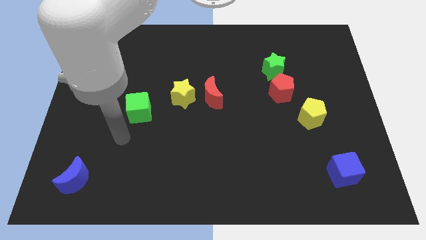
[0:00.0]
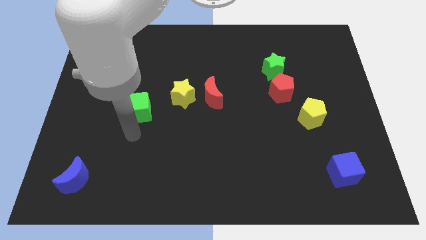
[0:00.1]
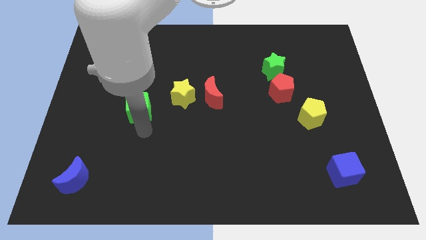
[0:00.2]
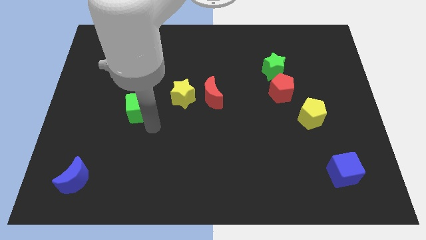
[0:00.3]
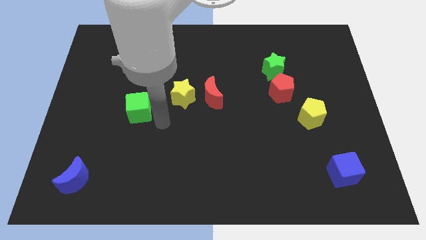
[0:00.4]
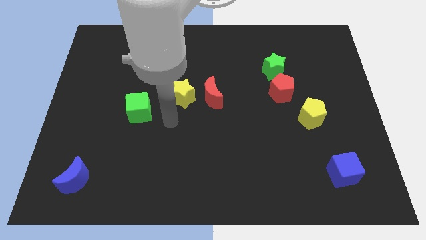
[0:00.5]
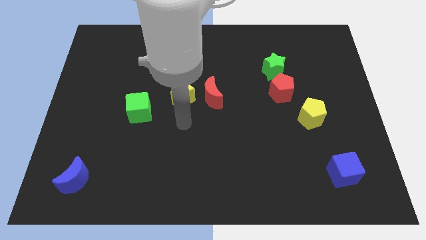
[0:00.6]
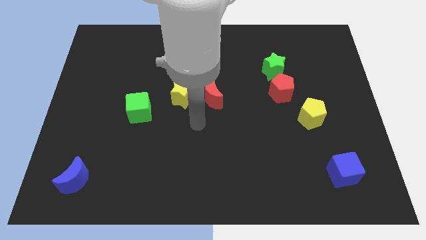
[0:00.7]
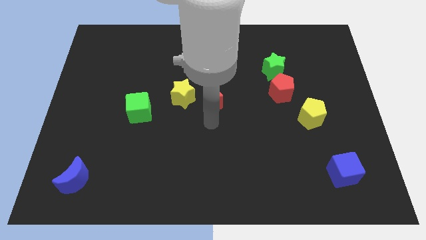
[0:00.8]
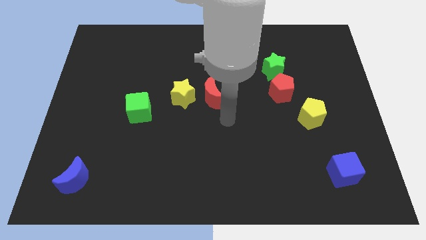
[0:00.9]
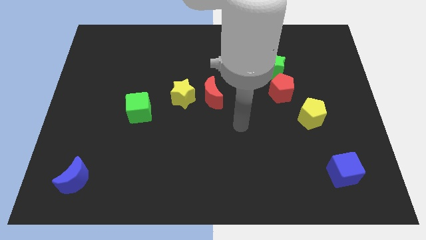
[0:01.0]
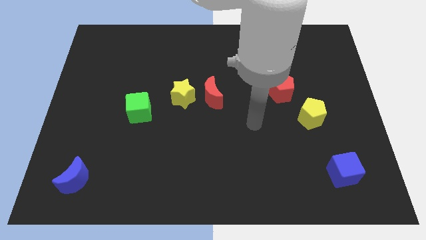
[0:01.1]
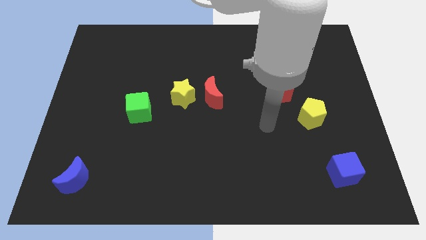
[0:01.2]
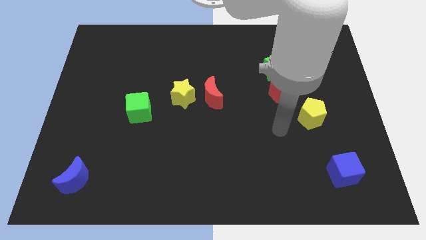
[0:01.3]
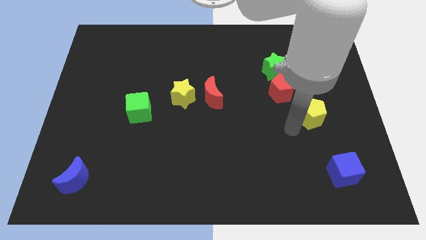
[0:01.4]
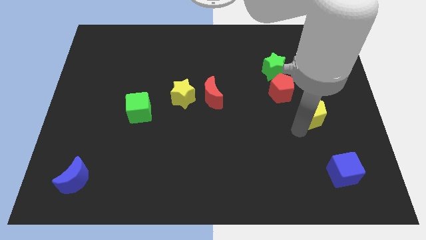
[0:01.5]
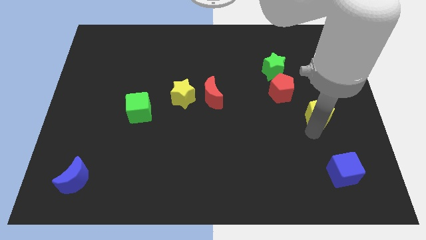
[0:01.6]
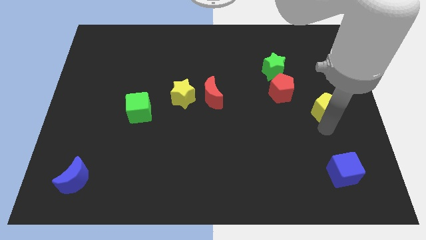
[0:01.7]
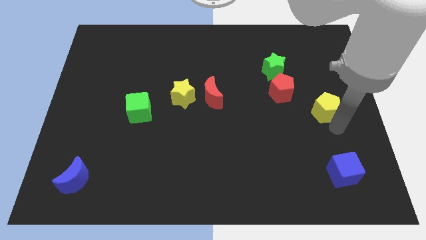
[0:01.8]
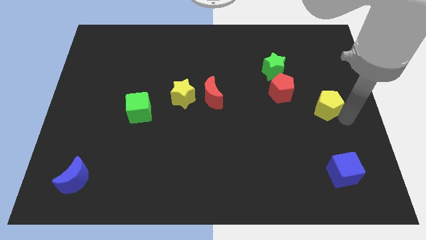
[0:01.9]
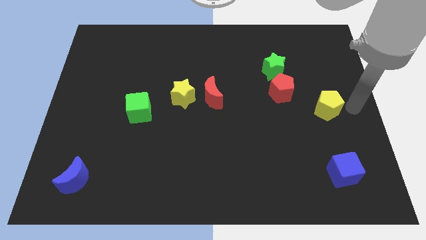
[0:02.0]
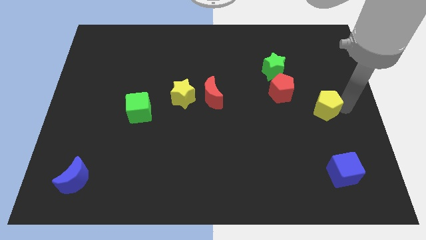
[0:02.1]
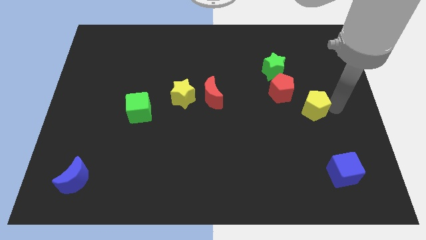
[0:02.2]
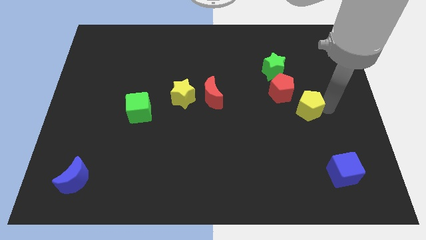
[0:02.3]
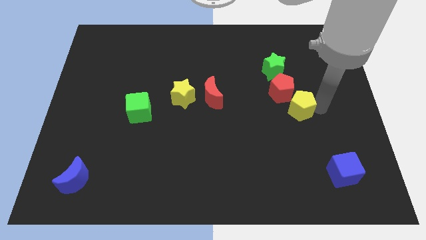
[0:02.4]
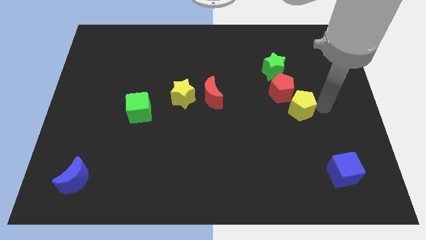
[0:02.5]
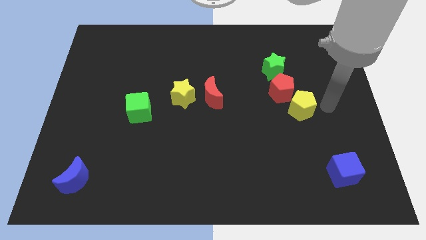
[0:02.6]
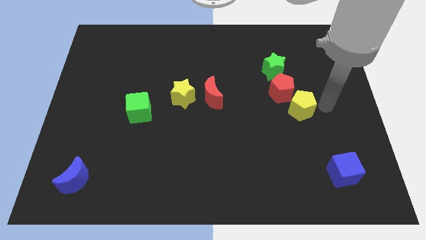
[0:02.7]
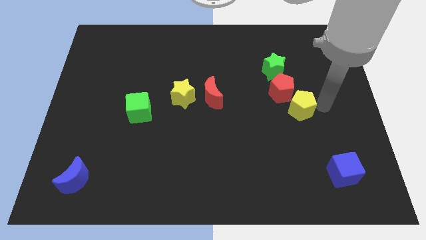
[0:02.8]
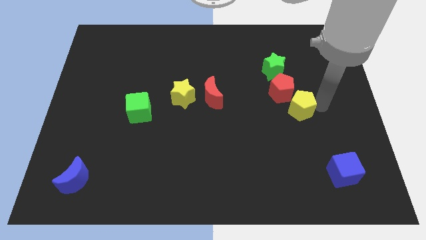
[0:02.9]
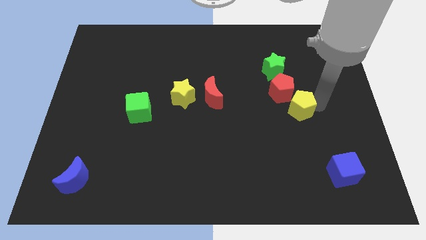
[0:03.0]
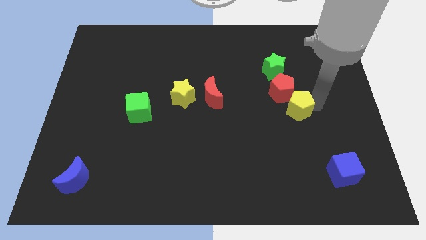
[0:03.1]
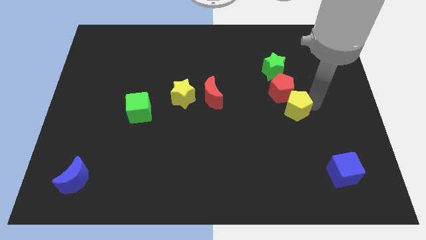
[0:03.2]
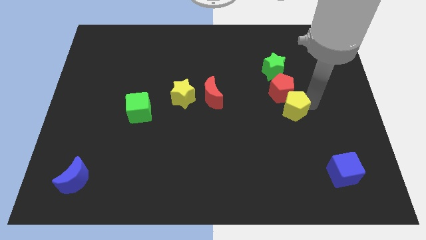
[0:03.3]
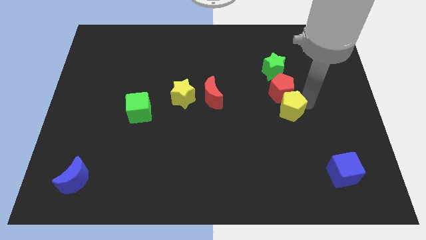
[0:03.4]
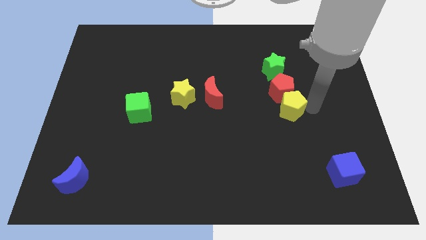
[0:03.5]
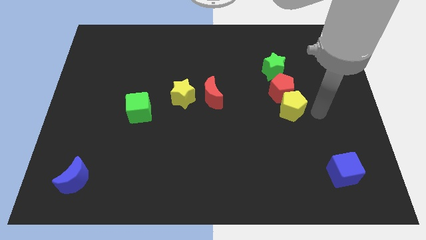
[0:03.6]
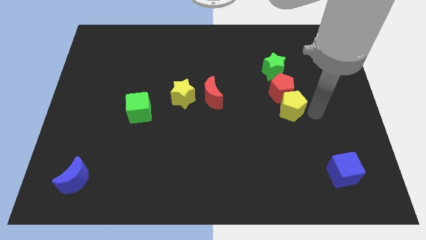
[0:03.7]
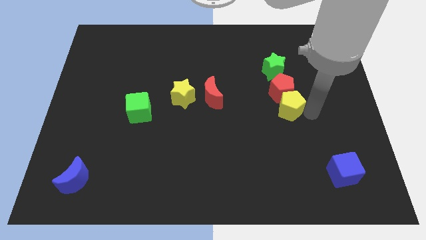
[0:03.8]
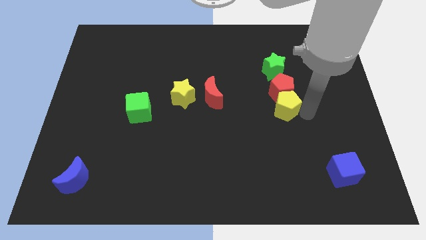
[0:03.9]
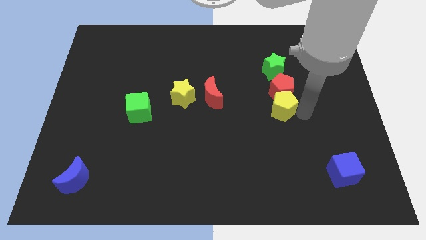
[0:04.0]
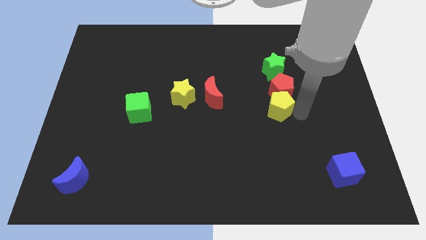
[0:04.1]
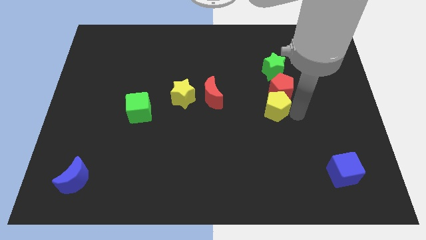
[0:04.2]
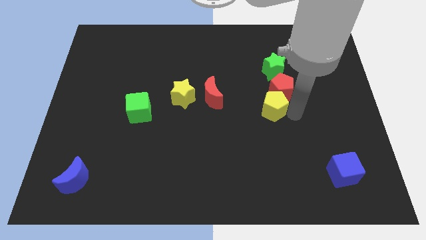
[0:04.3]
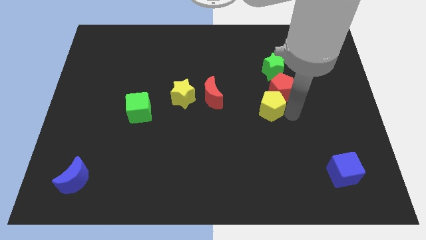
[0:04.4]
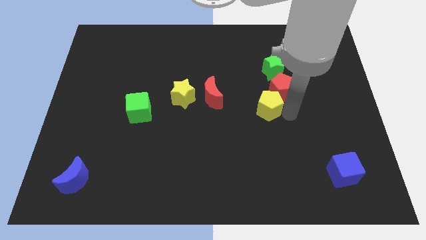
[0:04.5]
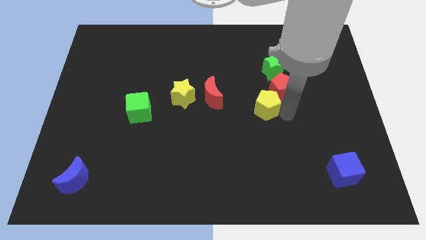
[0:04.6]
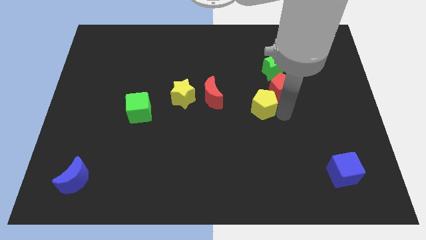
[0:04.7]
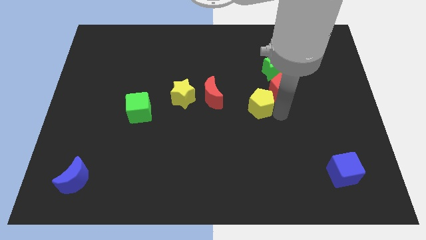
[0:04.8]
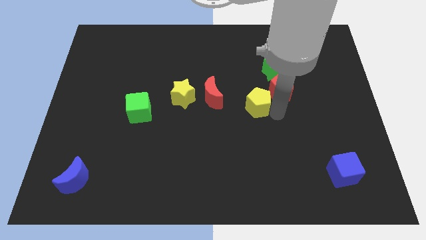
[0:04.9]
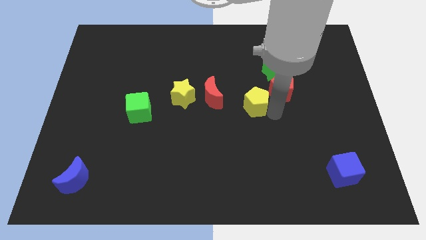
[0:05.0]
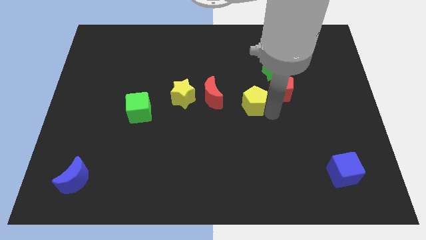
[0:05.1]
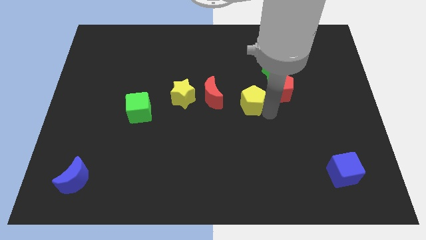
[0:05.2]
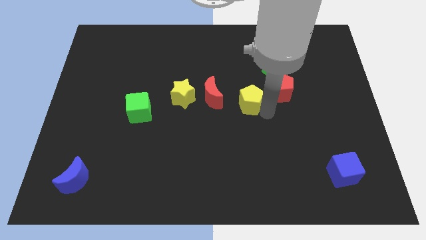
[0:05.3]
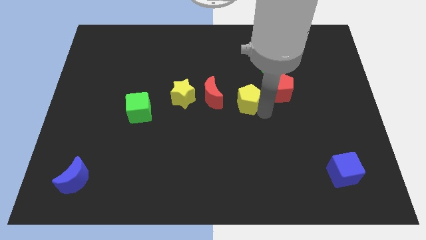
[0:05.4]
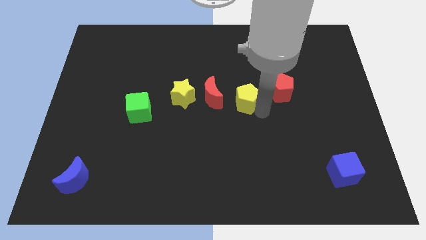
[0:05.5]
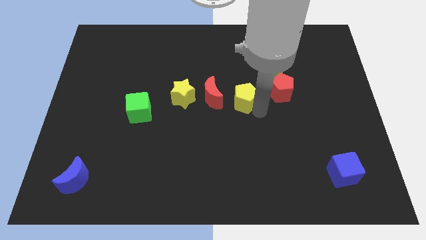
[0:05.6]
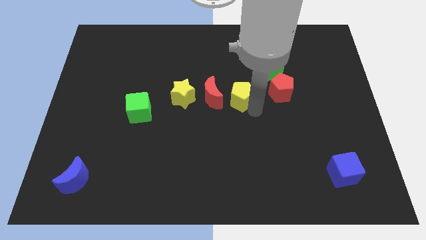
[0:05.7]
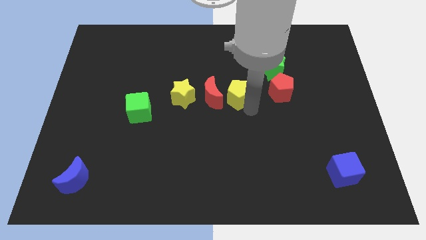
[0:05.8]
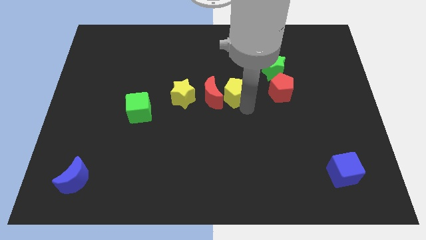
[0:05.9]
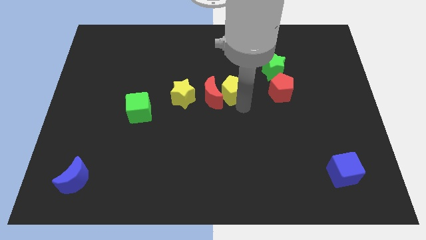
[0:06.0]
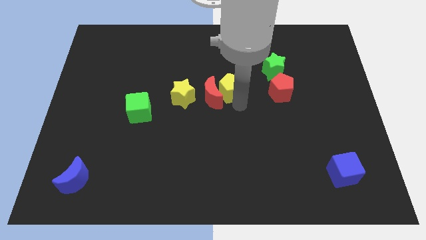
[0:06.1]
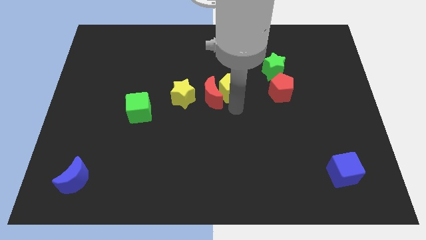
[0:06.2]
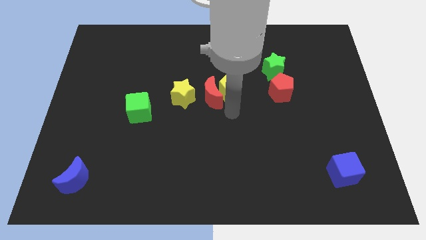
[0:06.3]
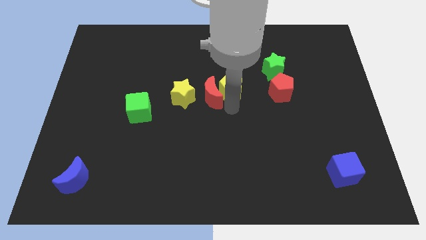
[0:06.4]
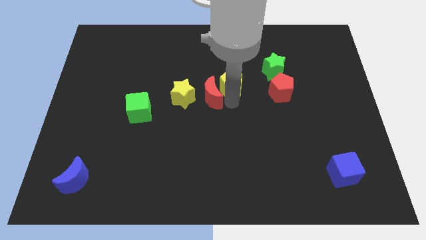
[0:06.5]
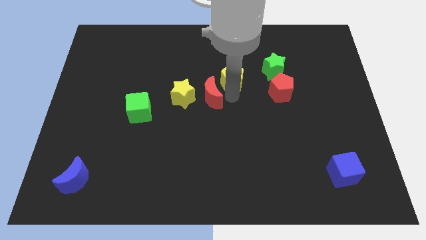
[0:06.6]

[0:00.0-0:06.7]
slide the yellow pentagon just left of the green star
